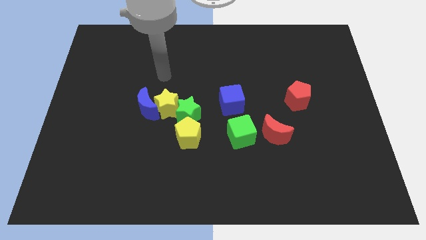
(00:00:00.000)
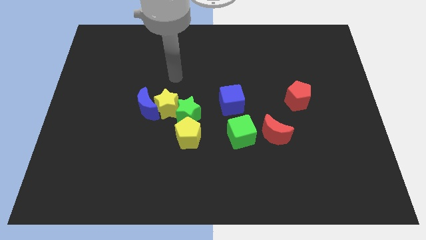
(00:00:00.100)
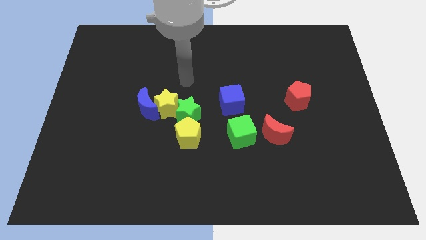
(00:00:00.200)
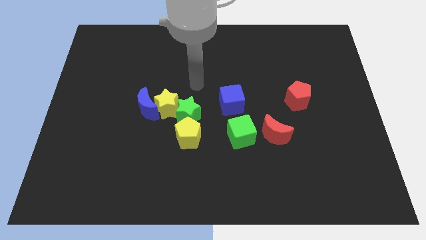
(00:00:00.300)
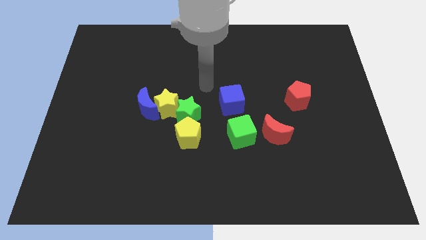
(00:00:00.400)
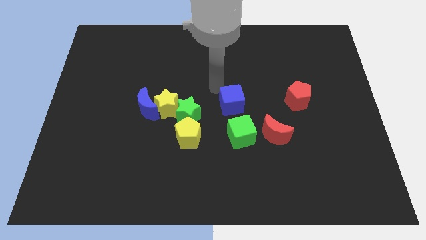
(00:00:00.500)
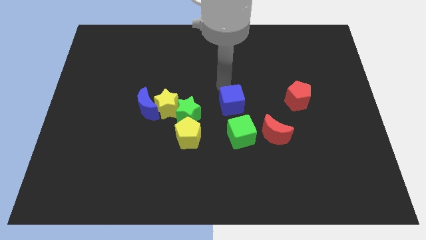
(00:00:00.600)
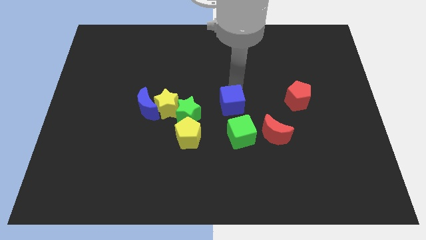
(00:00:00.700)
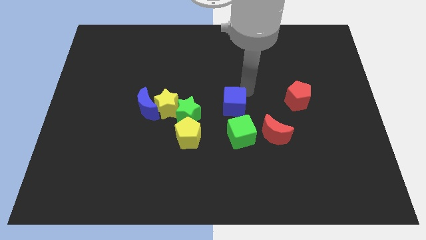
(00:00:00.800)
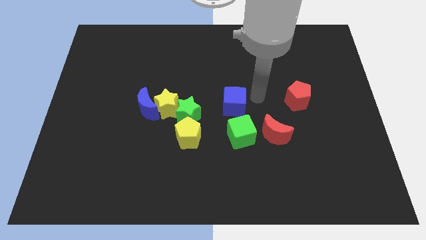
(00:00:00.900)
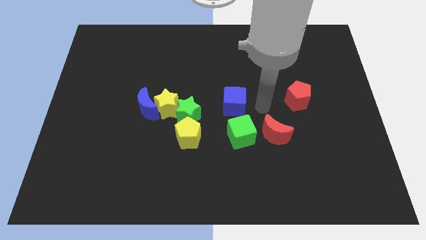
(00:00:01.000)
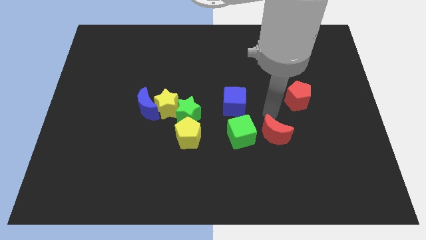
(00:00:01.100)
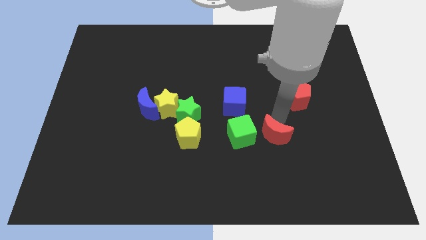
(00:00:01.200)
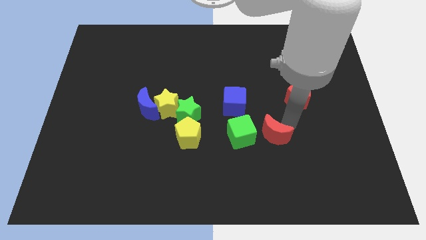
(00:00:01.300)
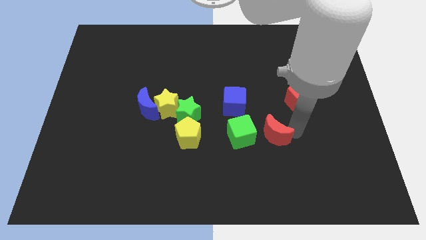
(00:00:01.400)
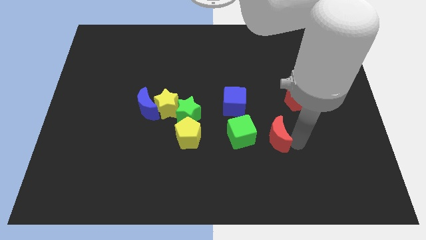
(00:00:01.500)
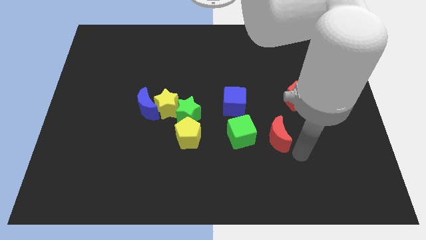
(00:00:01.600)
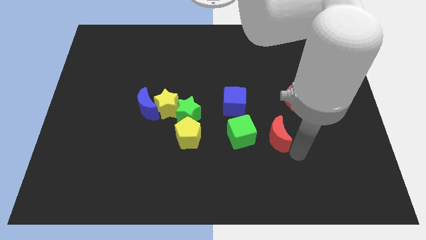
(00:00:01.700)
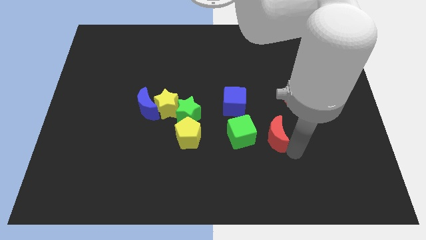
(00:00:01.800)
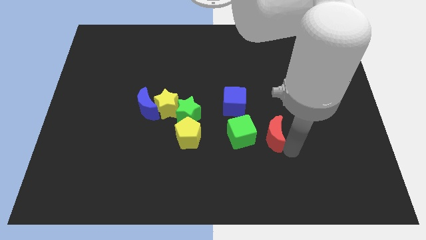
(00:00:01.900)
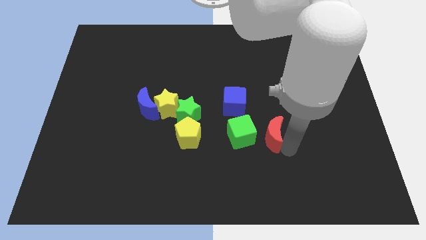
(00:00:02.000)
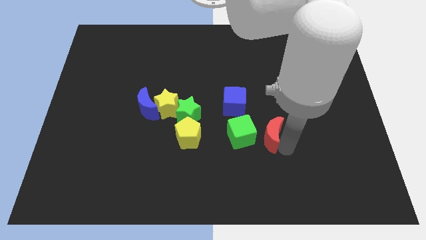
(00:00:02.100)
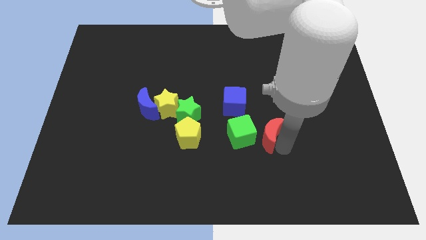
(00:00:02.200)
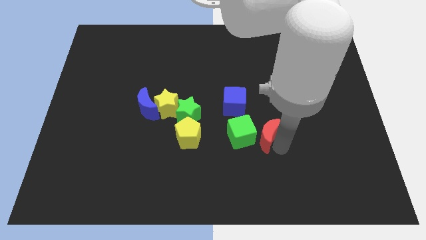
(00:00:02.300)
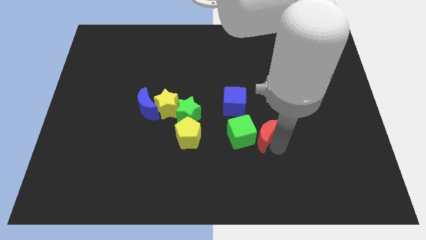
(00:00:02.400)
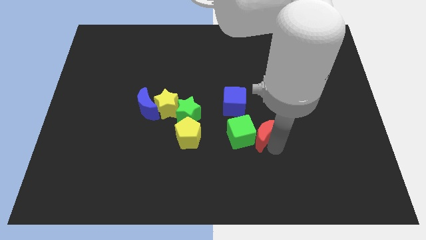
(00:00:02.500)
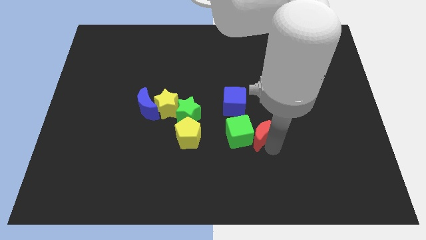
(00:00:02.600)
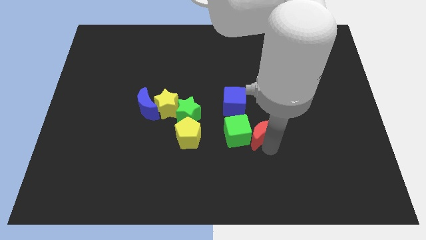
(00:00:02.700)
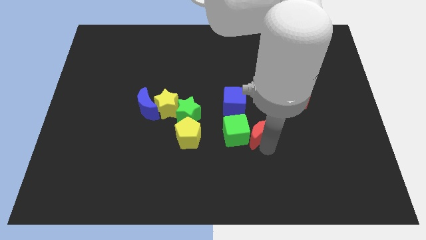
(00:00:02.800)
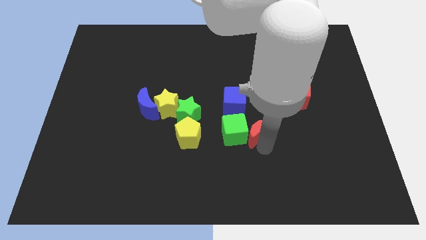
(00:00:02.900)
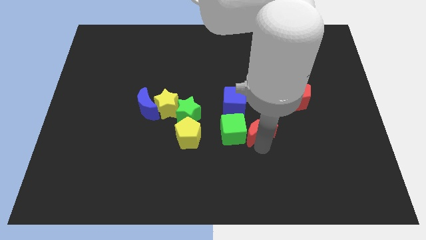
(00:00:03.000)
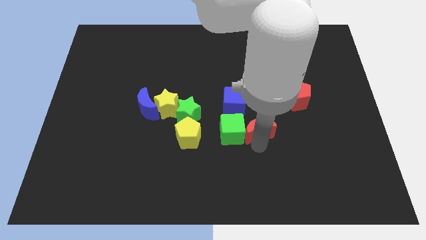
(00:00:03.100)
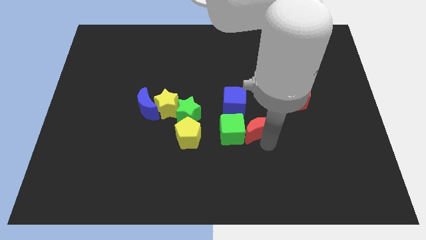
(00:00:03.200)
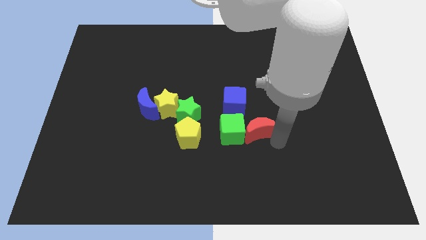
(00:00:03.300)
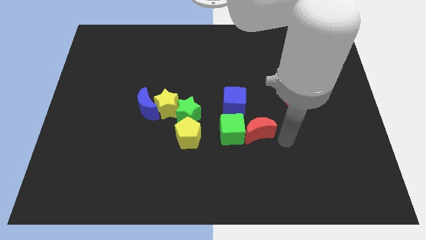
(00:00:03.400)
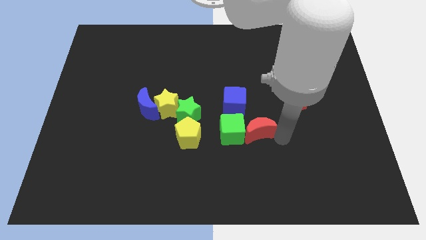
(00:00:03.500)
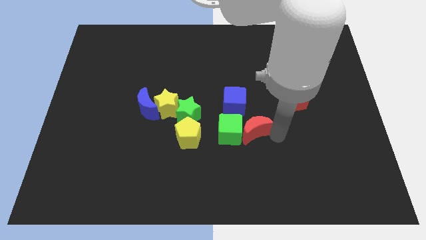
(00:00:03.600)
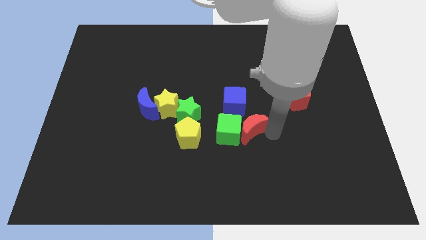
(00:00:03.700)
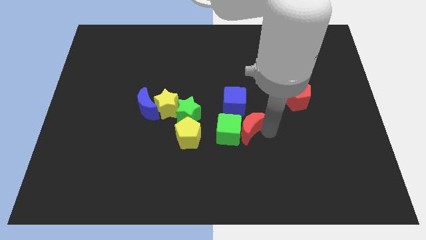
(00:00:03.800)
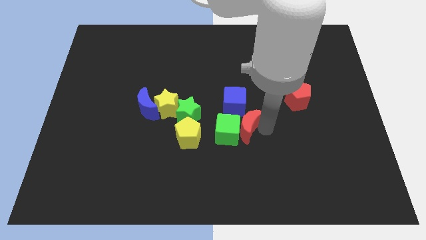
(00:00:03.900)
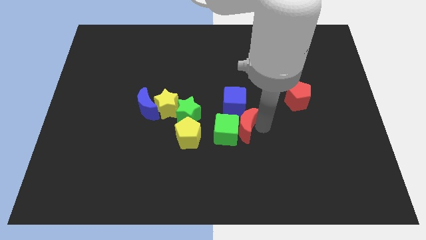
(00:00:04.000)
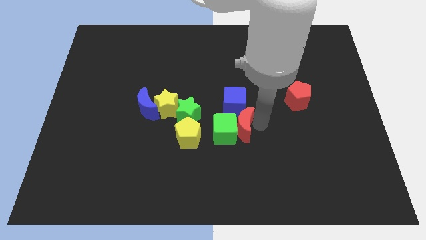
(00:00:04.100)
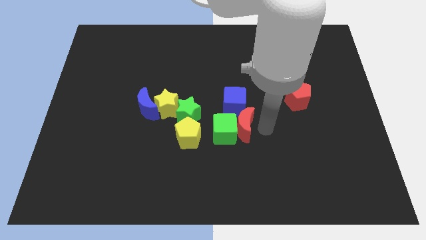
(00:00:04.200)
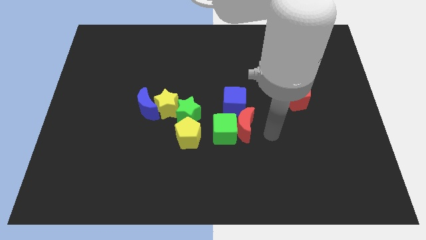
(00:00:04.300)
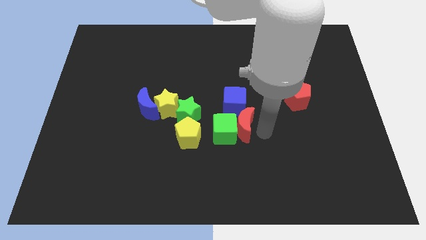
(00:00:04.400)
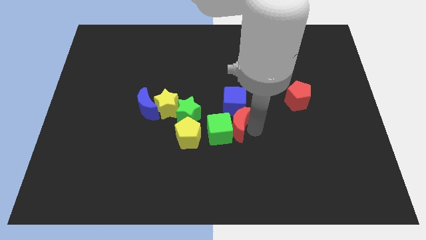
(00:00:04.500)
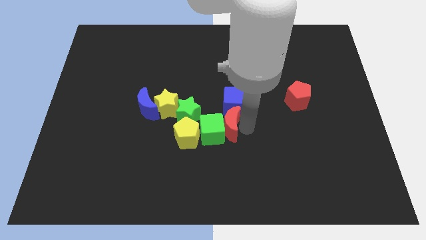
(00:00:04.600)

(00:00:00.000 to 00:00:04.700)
slide the red moon to the top right of the yellow pentagon

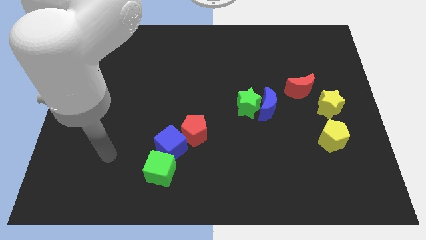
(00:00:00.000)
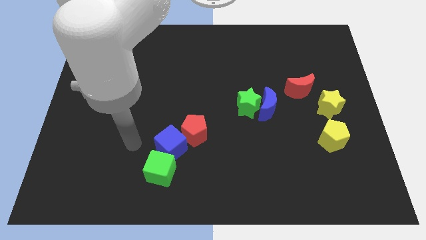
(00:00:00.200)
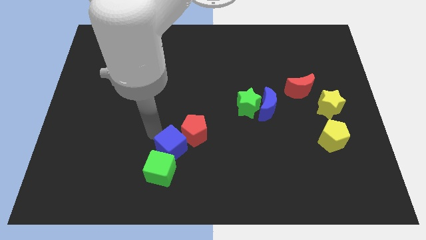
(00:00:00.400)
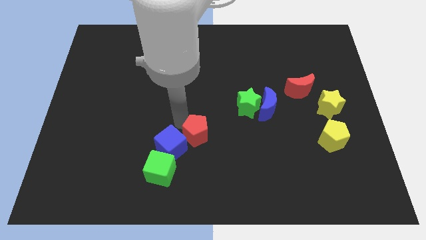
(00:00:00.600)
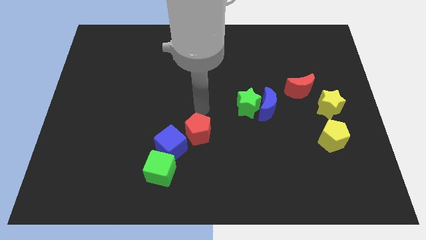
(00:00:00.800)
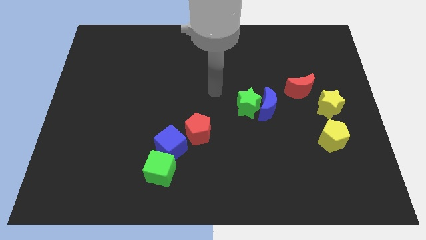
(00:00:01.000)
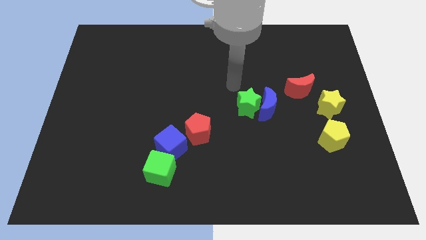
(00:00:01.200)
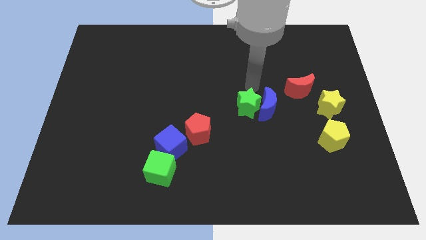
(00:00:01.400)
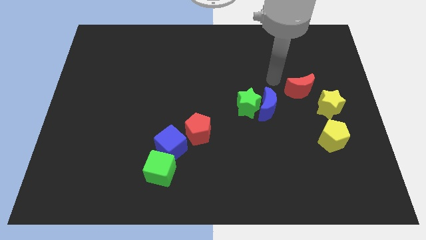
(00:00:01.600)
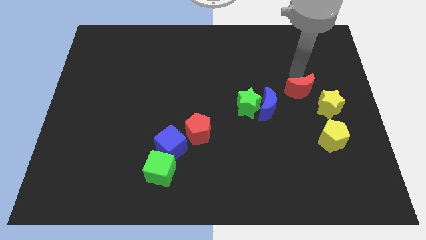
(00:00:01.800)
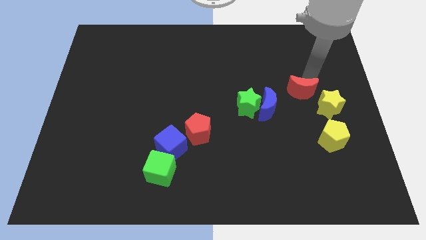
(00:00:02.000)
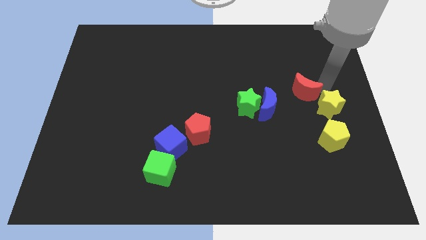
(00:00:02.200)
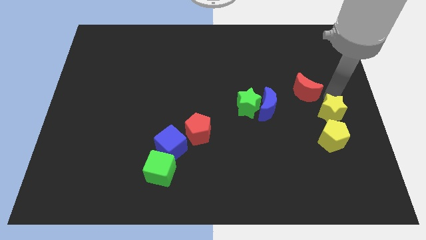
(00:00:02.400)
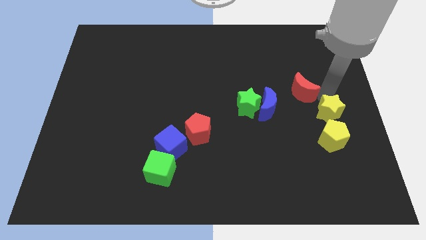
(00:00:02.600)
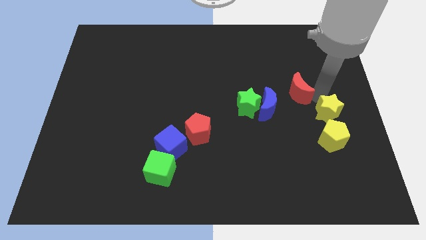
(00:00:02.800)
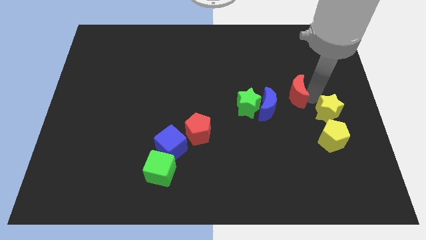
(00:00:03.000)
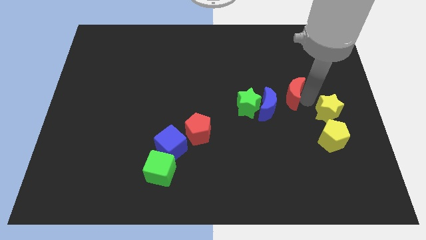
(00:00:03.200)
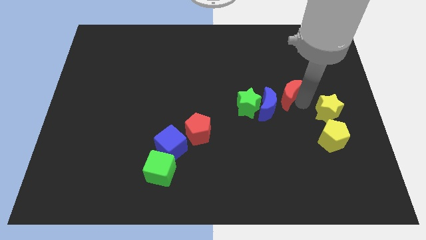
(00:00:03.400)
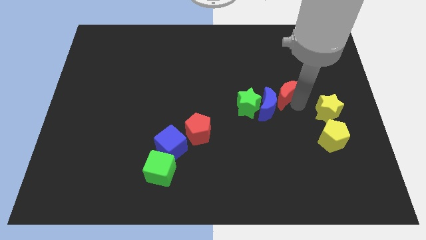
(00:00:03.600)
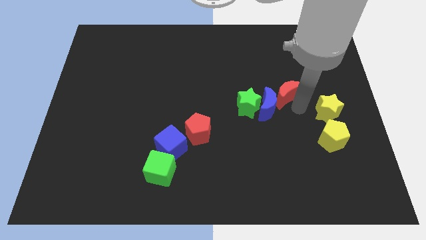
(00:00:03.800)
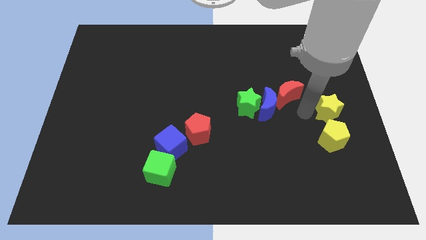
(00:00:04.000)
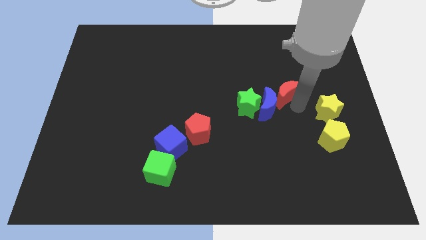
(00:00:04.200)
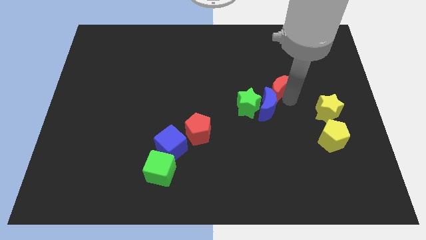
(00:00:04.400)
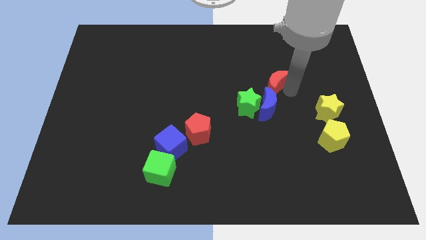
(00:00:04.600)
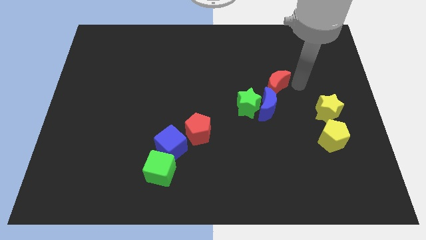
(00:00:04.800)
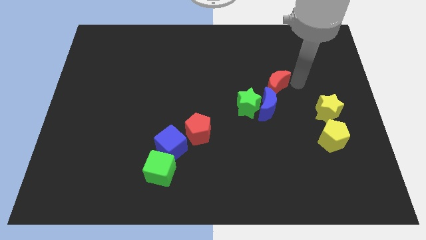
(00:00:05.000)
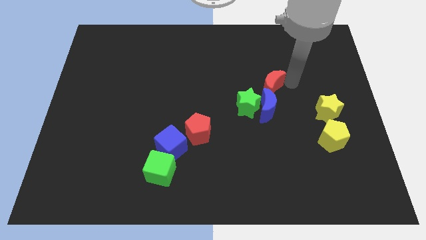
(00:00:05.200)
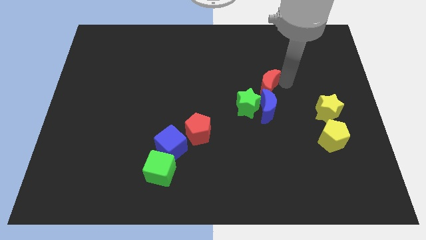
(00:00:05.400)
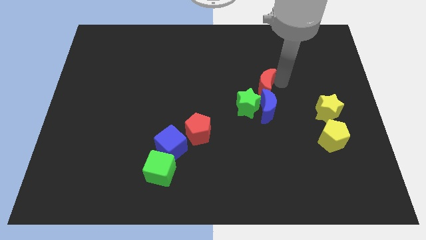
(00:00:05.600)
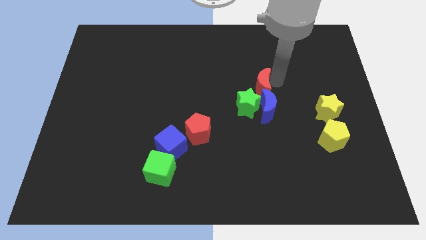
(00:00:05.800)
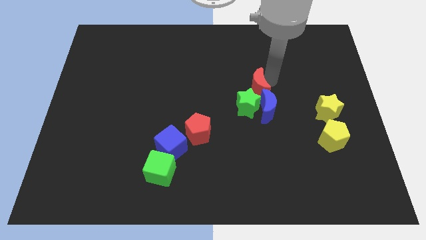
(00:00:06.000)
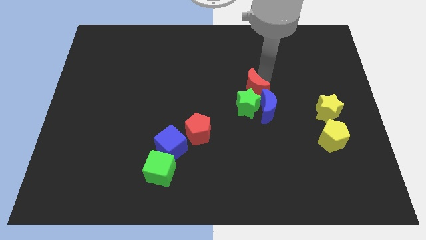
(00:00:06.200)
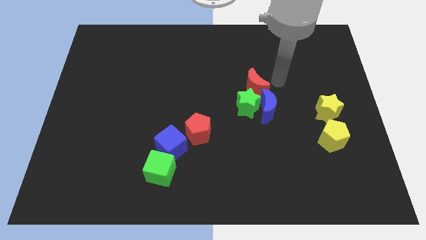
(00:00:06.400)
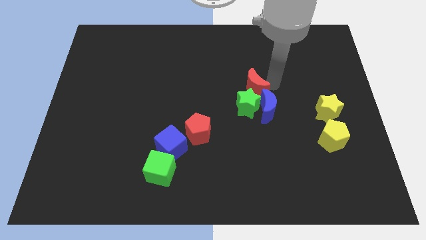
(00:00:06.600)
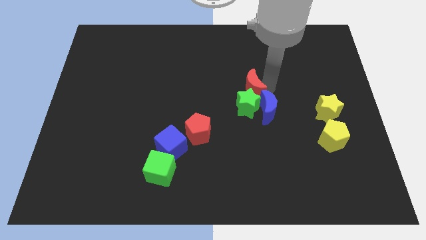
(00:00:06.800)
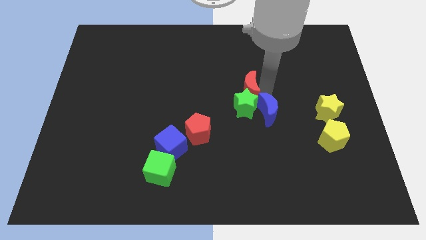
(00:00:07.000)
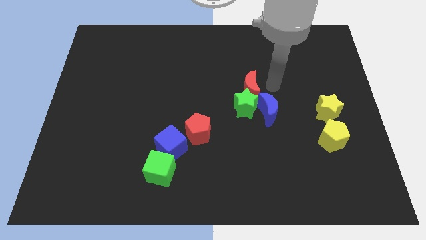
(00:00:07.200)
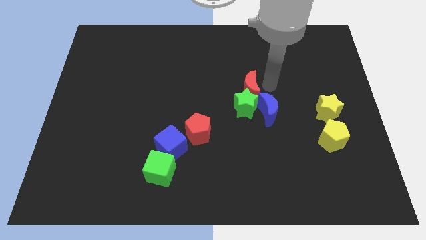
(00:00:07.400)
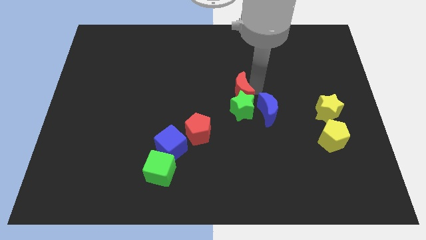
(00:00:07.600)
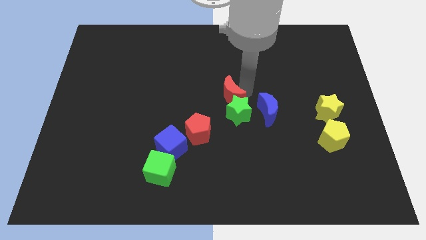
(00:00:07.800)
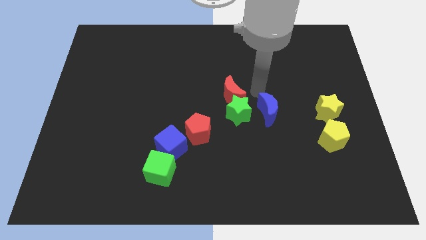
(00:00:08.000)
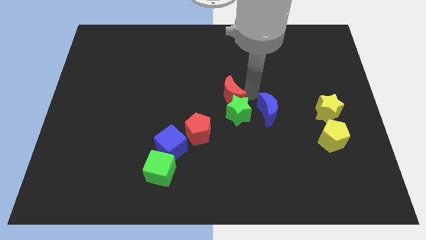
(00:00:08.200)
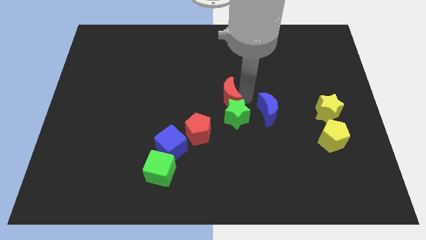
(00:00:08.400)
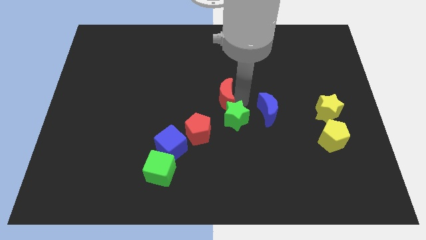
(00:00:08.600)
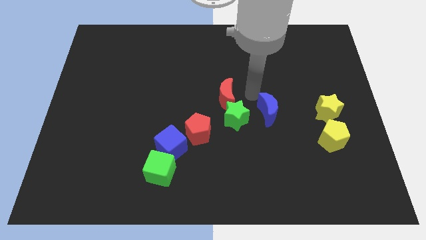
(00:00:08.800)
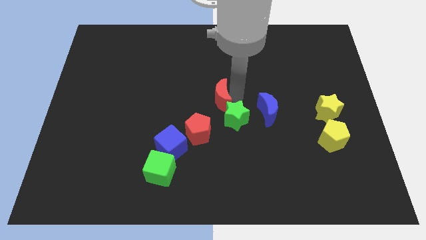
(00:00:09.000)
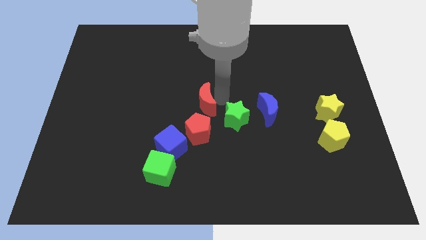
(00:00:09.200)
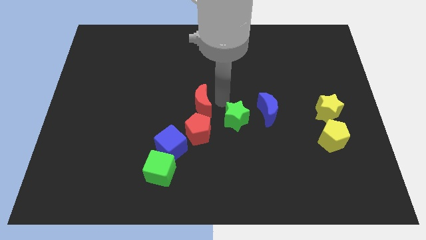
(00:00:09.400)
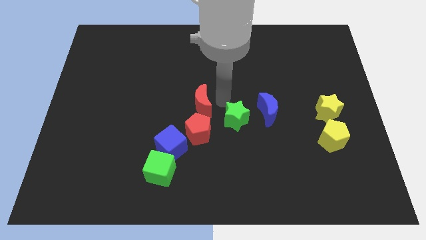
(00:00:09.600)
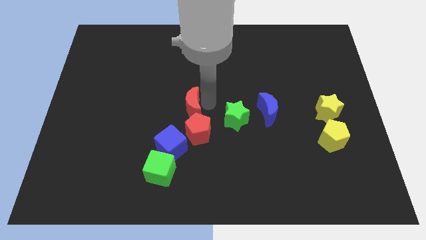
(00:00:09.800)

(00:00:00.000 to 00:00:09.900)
put the red moon to the top of the blue cube
